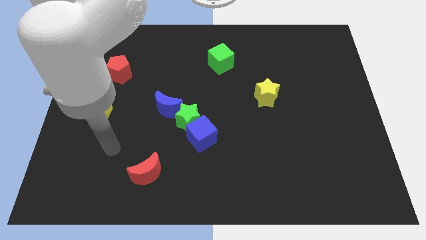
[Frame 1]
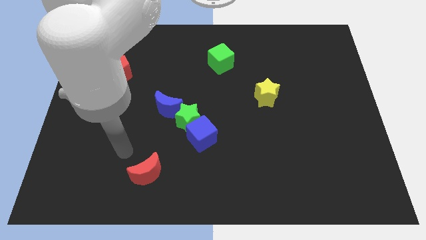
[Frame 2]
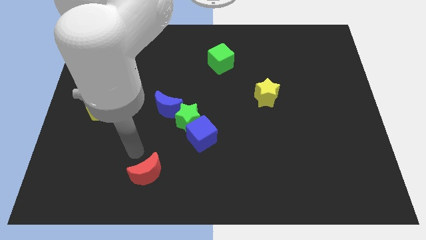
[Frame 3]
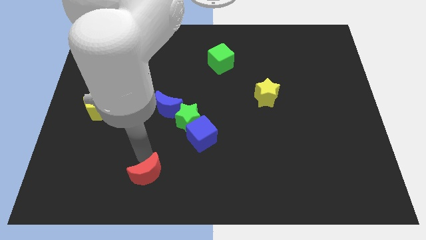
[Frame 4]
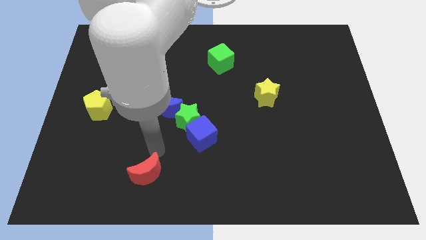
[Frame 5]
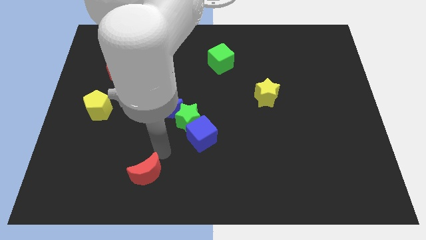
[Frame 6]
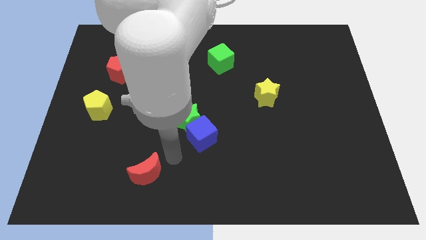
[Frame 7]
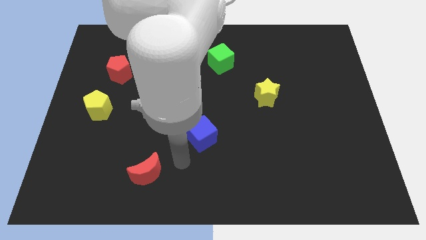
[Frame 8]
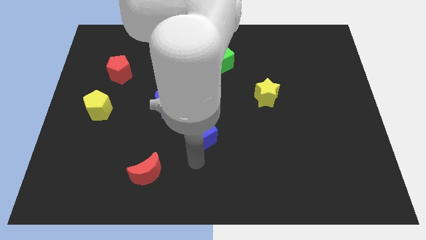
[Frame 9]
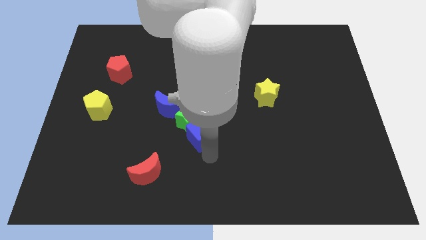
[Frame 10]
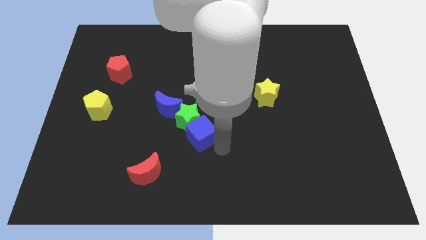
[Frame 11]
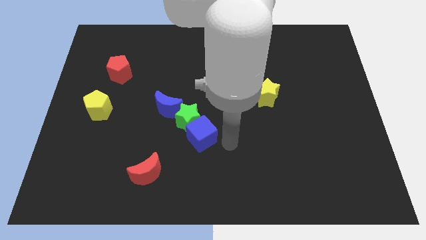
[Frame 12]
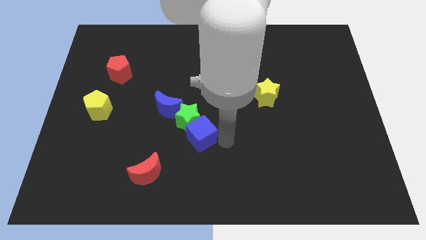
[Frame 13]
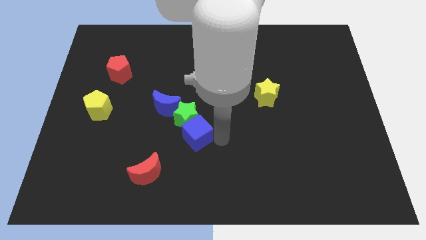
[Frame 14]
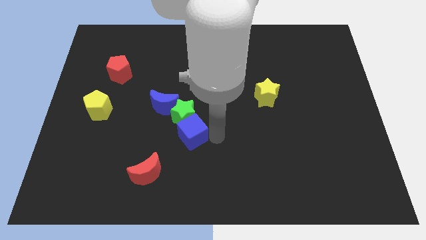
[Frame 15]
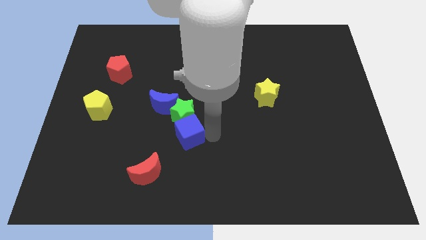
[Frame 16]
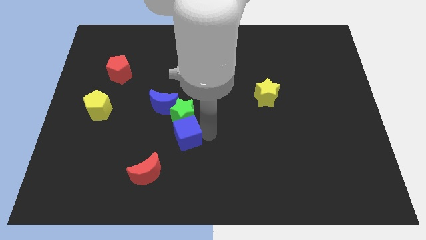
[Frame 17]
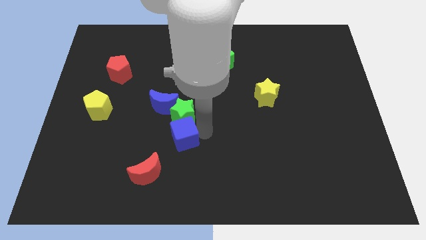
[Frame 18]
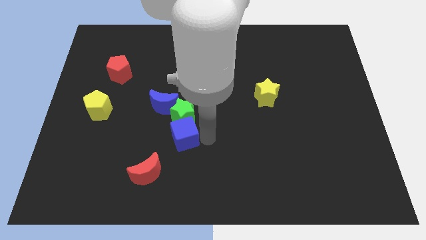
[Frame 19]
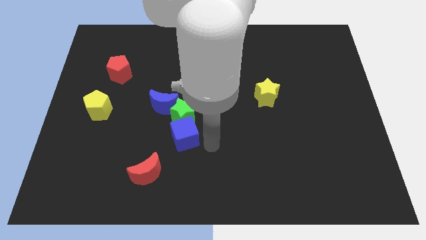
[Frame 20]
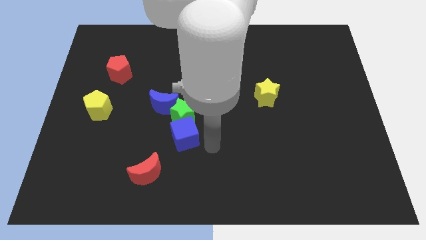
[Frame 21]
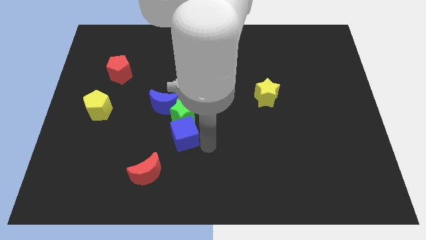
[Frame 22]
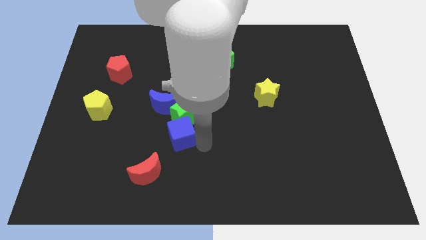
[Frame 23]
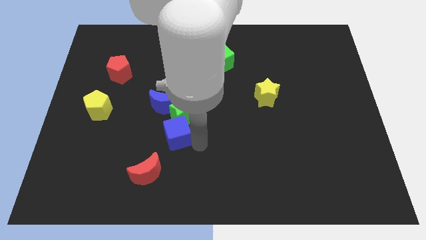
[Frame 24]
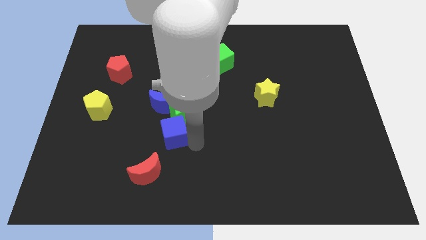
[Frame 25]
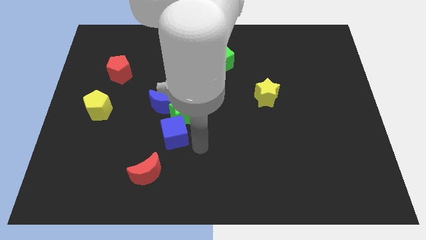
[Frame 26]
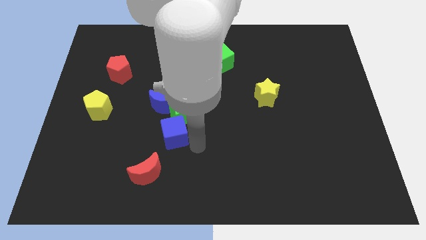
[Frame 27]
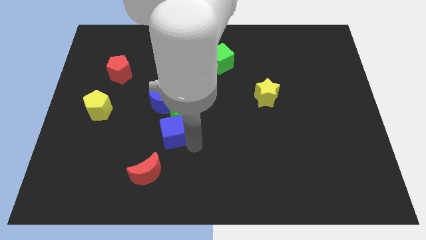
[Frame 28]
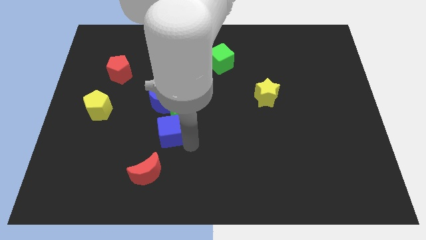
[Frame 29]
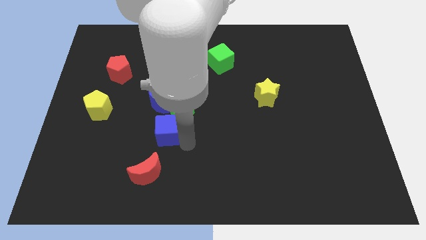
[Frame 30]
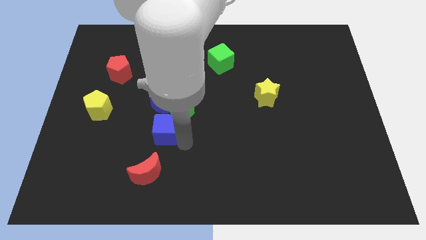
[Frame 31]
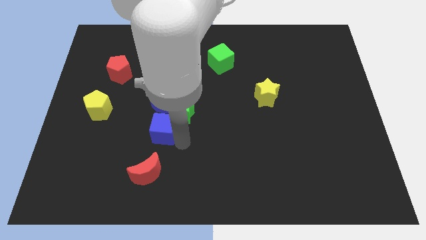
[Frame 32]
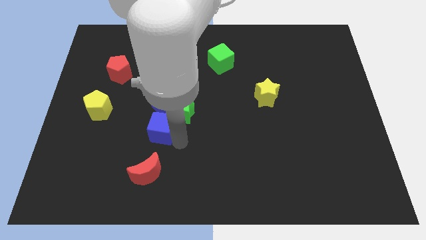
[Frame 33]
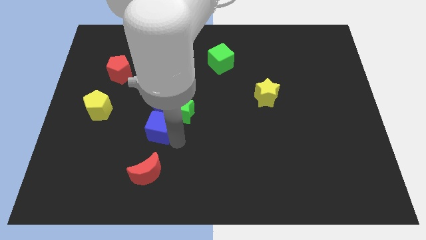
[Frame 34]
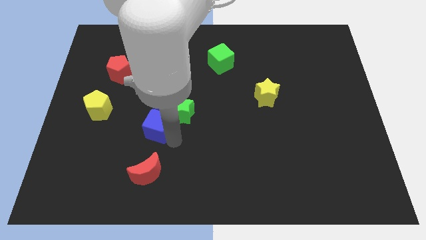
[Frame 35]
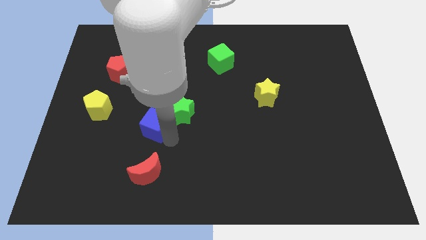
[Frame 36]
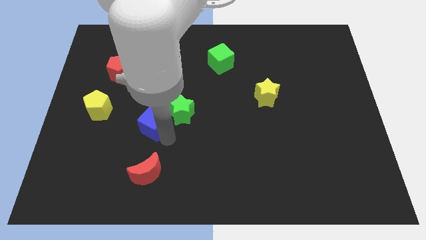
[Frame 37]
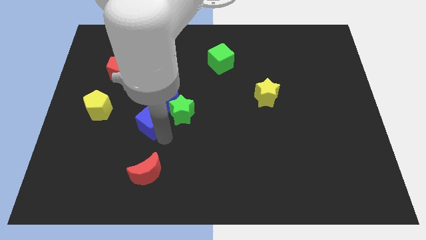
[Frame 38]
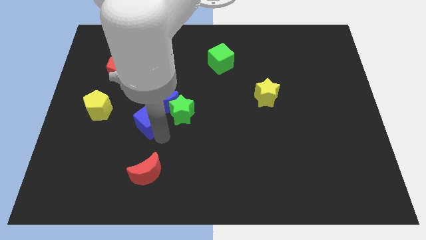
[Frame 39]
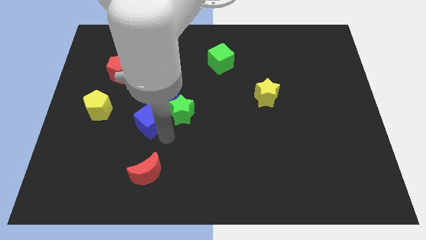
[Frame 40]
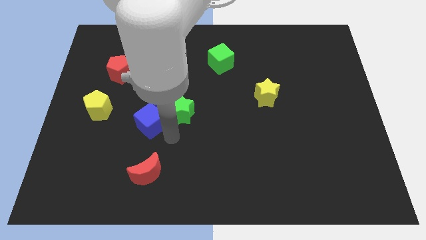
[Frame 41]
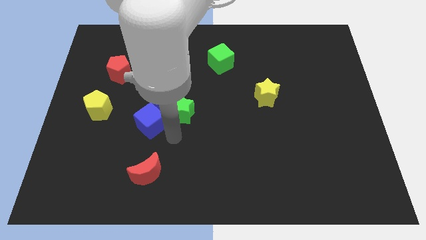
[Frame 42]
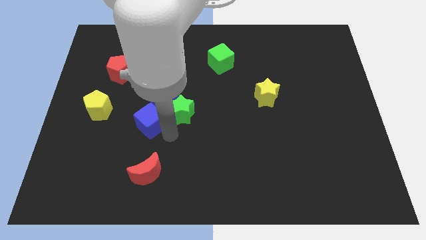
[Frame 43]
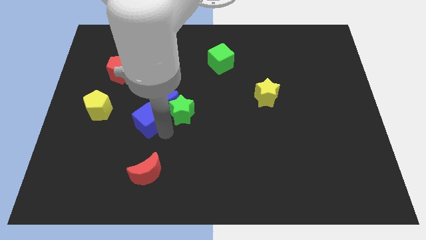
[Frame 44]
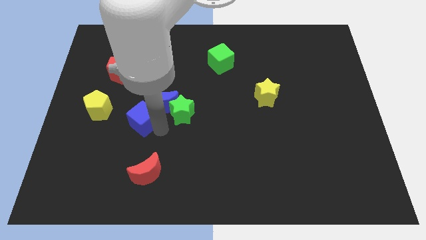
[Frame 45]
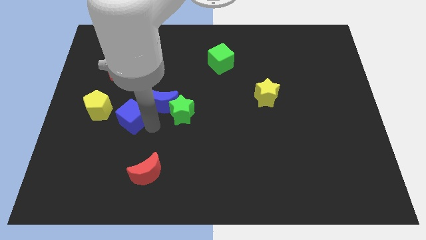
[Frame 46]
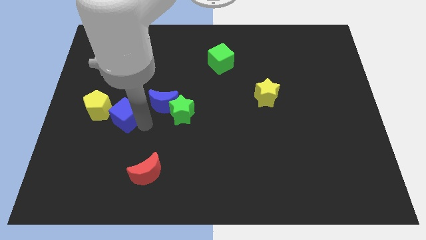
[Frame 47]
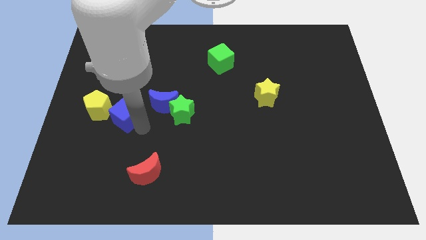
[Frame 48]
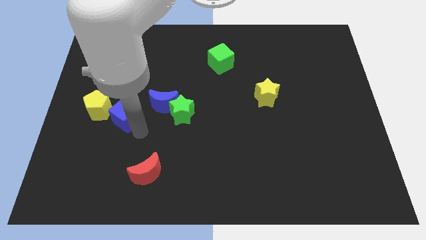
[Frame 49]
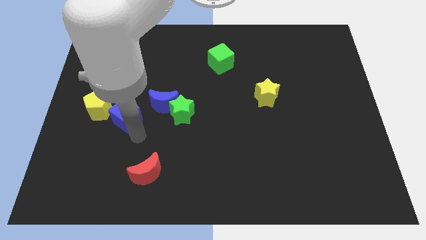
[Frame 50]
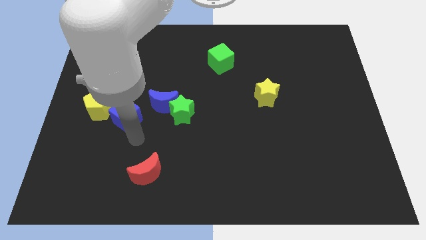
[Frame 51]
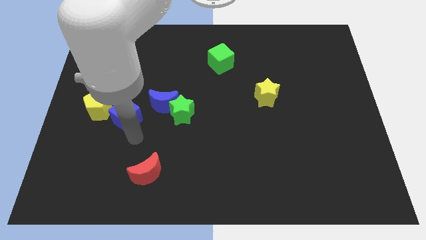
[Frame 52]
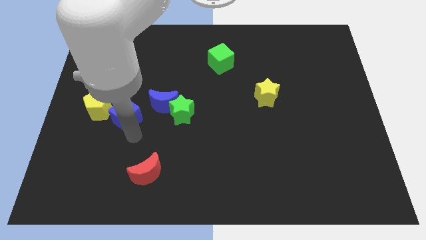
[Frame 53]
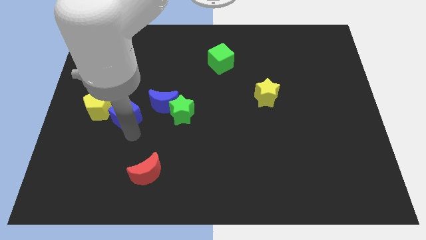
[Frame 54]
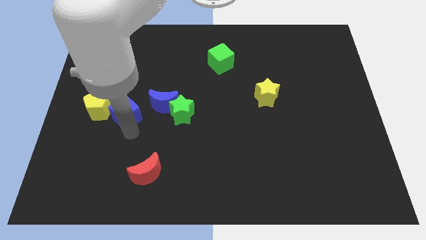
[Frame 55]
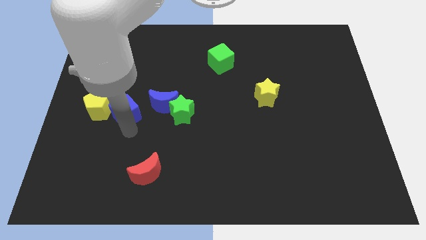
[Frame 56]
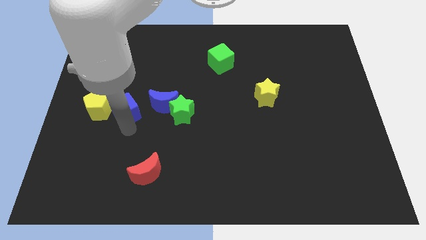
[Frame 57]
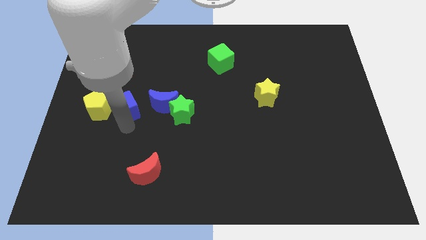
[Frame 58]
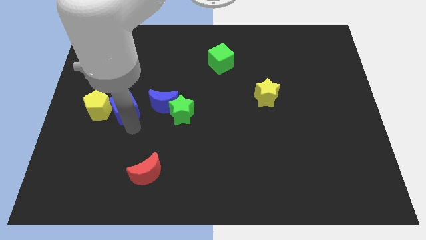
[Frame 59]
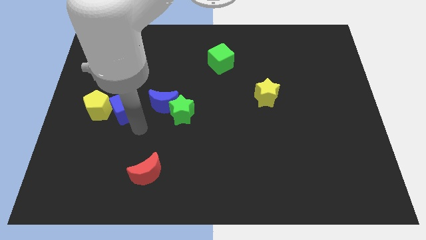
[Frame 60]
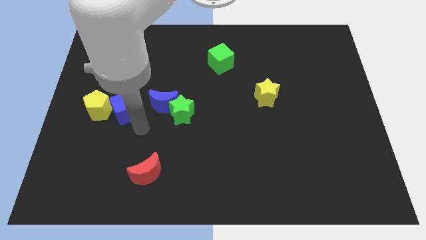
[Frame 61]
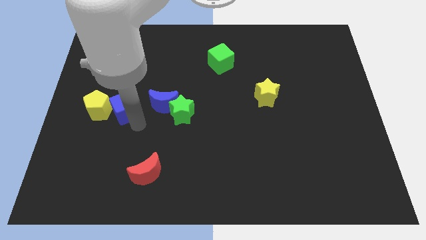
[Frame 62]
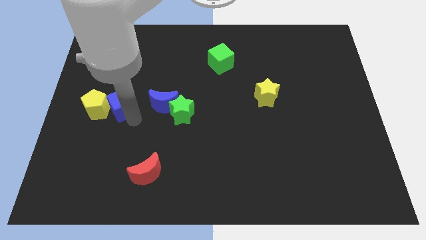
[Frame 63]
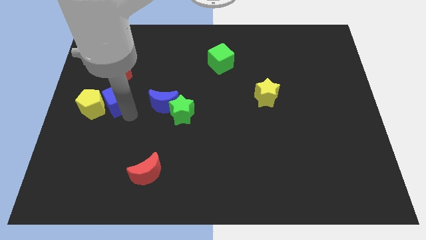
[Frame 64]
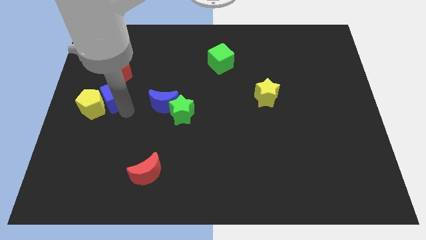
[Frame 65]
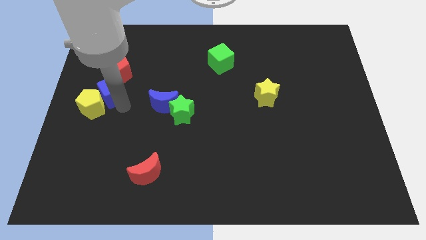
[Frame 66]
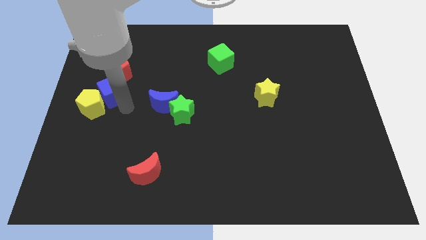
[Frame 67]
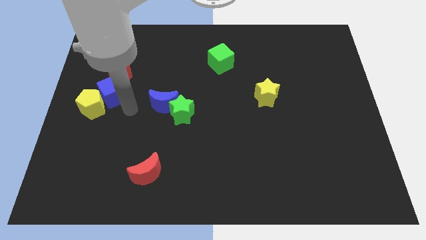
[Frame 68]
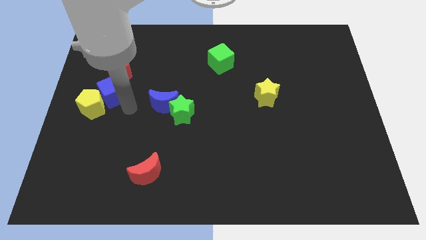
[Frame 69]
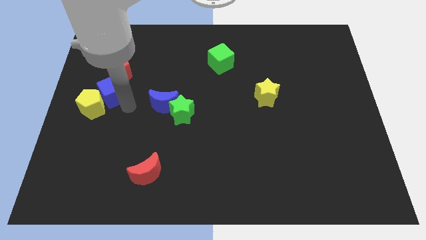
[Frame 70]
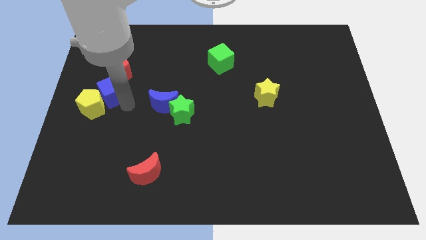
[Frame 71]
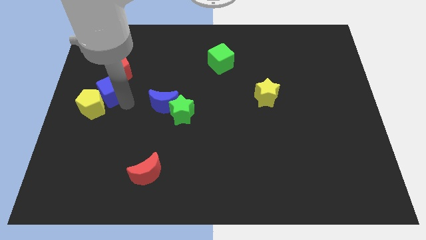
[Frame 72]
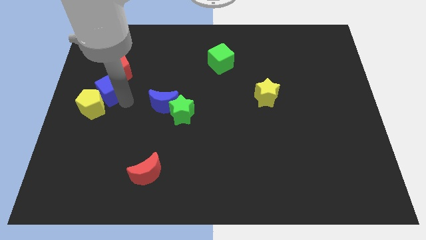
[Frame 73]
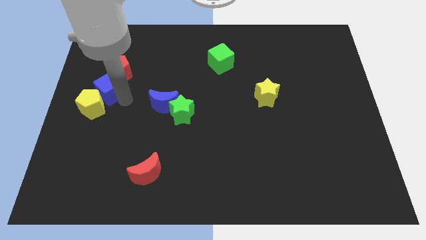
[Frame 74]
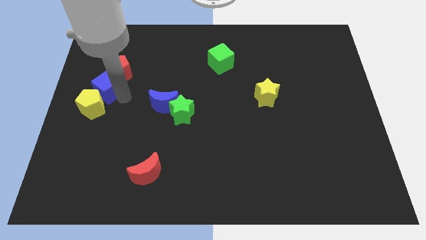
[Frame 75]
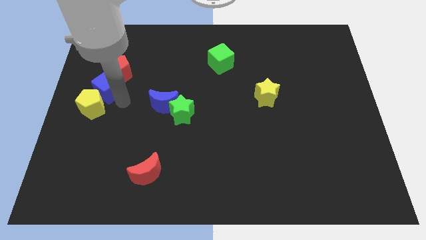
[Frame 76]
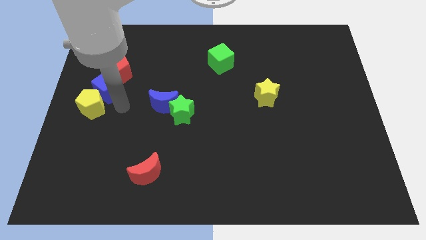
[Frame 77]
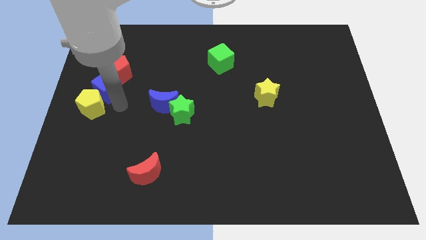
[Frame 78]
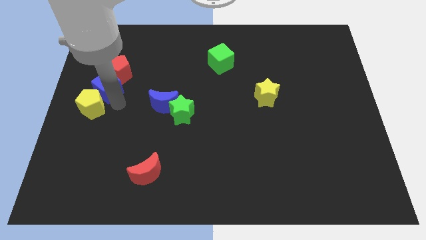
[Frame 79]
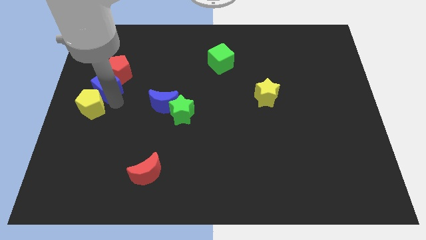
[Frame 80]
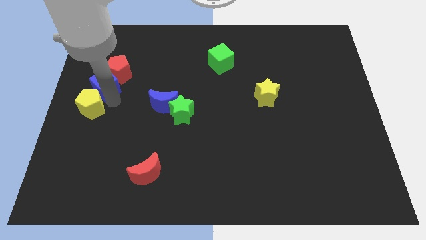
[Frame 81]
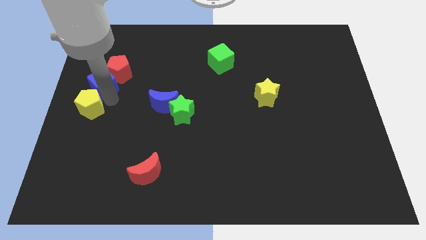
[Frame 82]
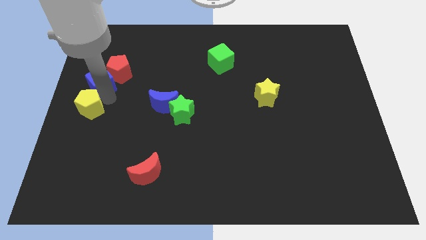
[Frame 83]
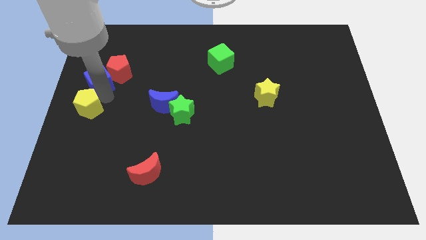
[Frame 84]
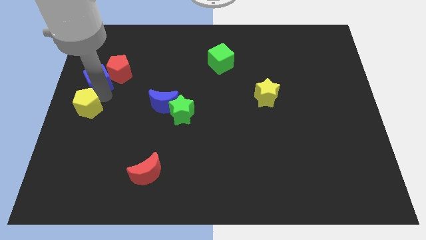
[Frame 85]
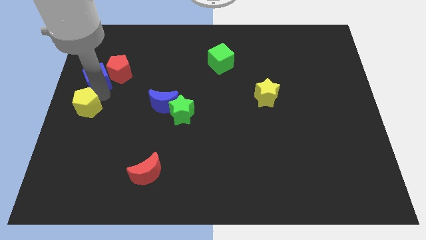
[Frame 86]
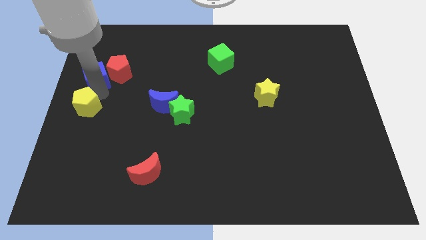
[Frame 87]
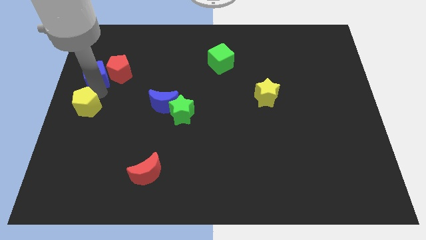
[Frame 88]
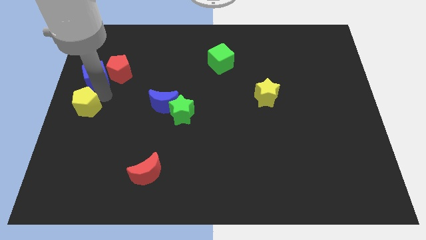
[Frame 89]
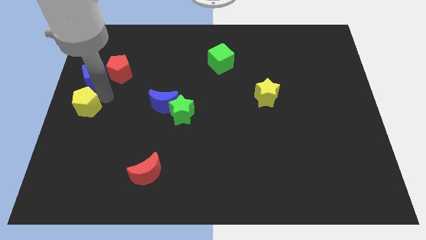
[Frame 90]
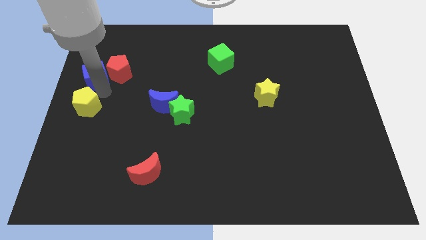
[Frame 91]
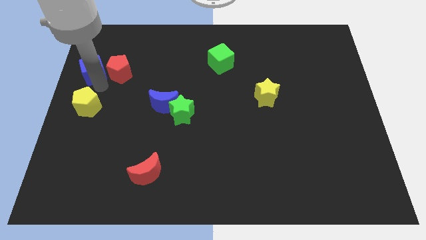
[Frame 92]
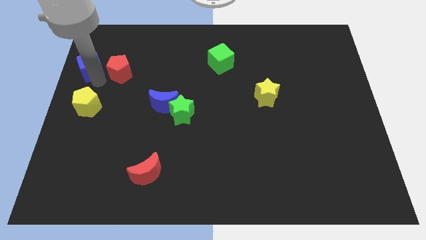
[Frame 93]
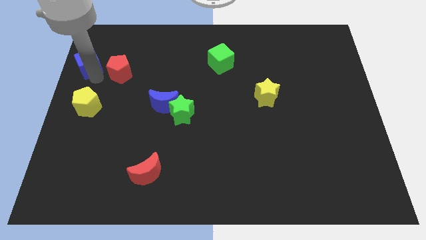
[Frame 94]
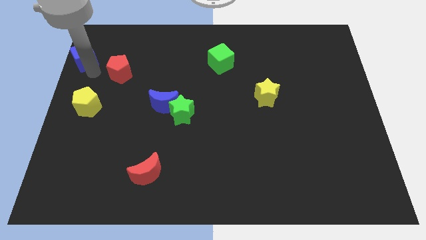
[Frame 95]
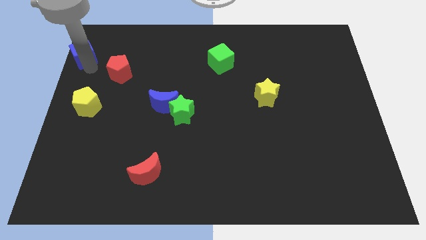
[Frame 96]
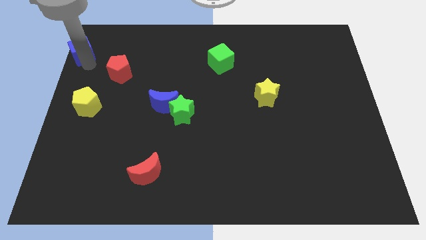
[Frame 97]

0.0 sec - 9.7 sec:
slide the blue cube to the top left corner
